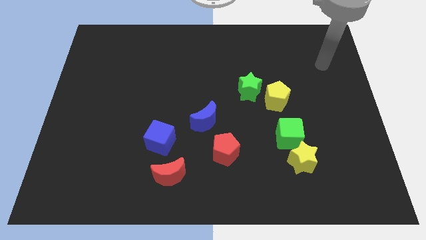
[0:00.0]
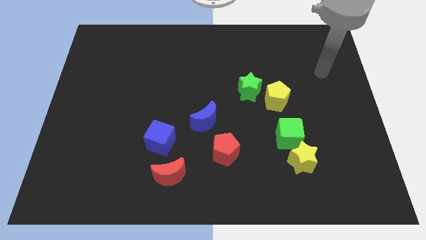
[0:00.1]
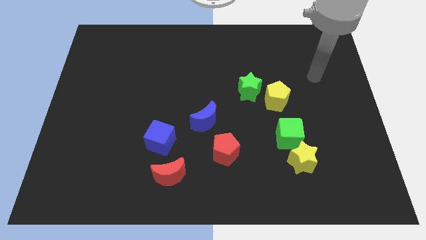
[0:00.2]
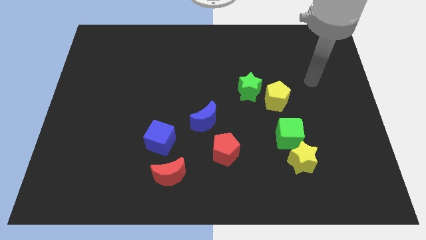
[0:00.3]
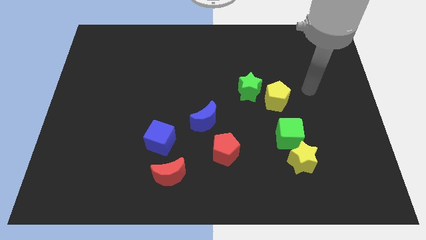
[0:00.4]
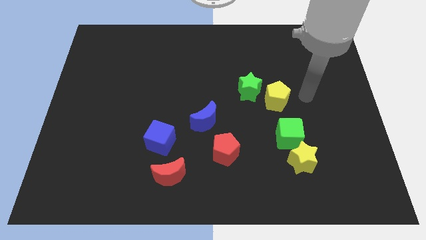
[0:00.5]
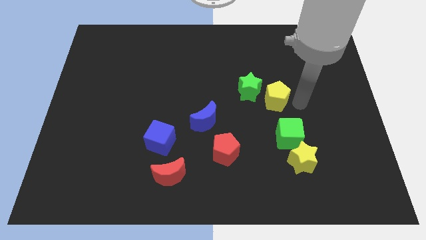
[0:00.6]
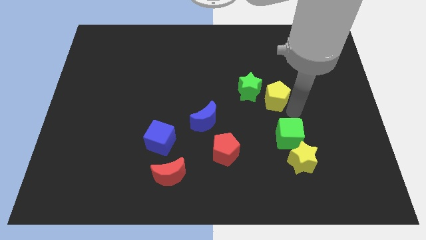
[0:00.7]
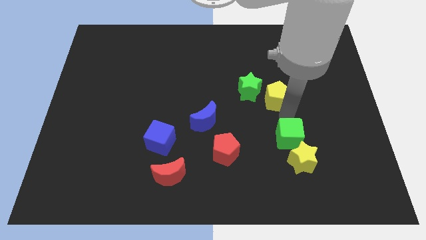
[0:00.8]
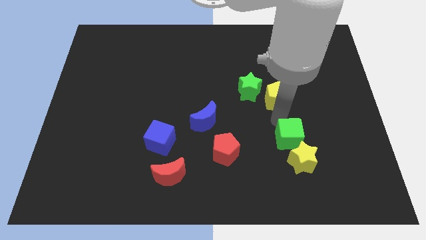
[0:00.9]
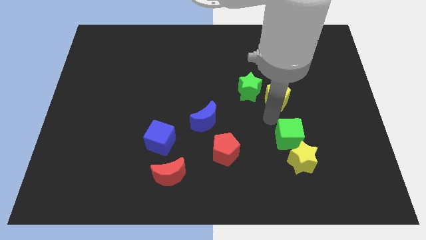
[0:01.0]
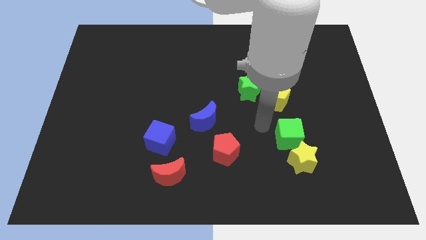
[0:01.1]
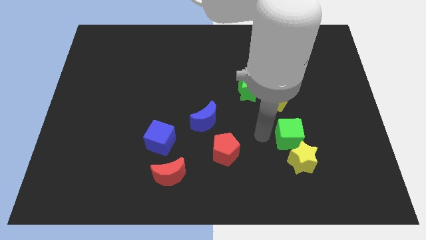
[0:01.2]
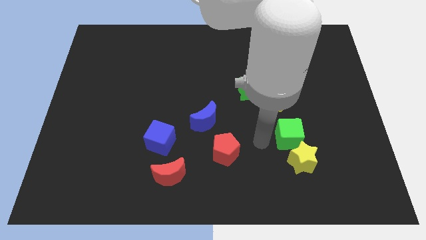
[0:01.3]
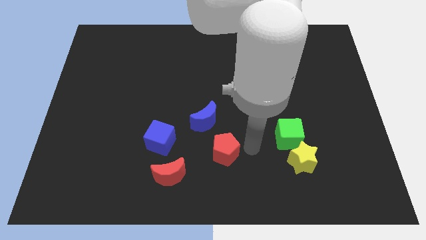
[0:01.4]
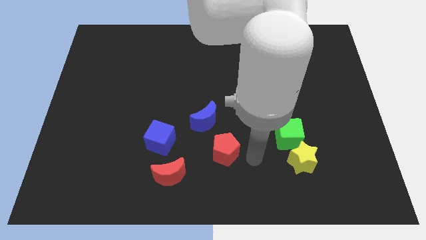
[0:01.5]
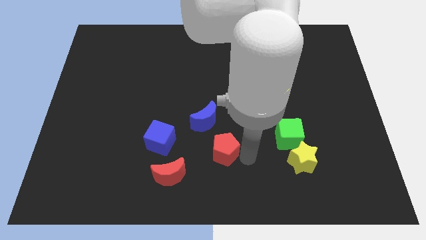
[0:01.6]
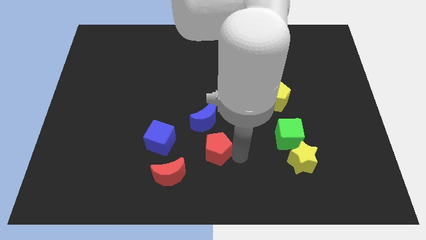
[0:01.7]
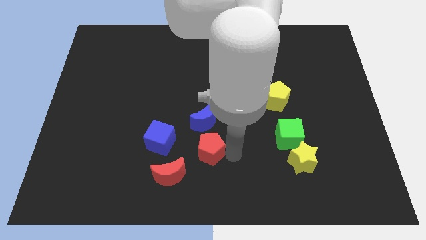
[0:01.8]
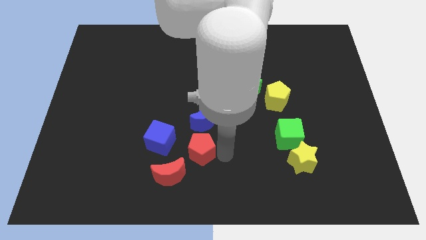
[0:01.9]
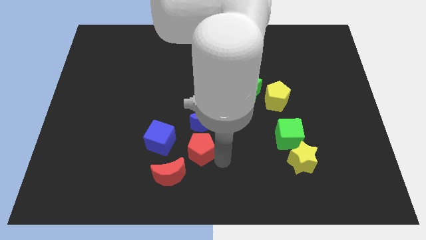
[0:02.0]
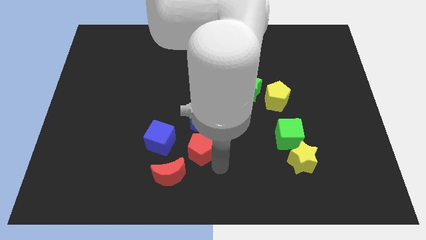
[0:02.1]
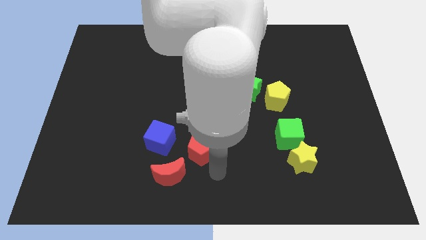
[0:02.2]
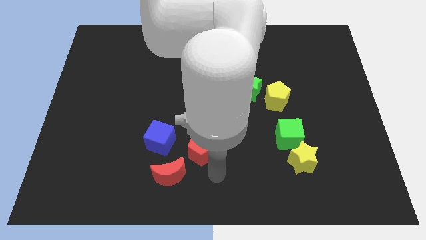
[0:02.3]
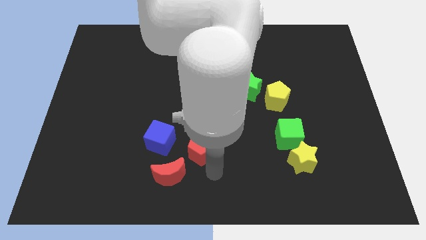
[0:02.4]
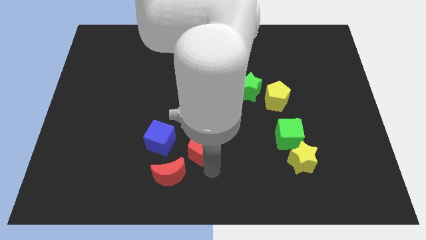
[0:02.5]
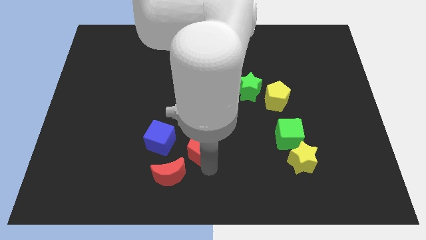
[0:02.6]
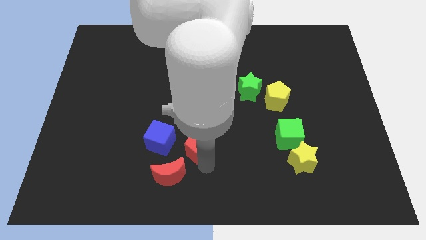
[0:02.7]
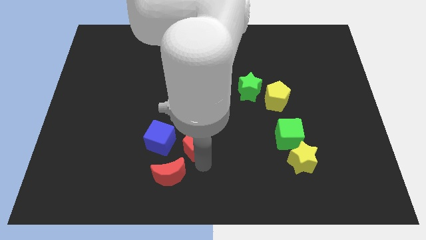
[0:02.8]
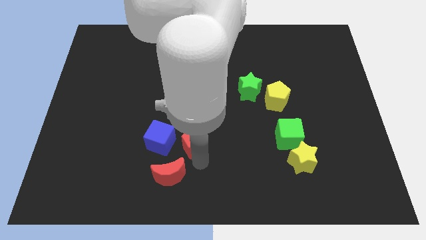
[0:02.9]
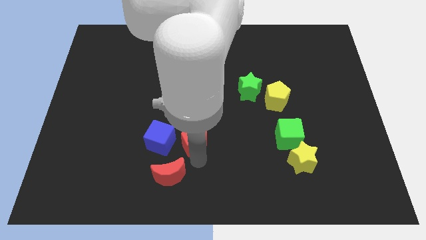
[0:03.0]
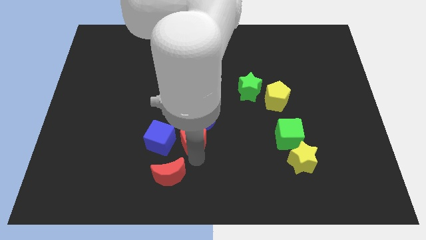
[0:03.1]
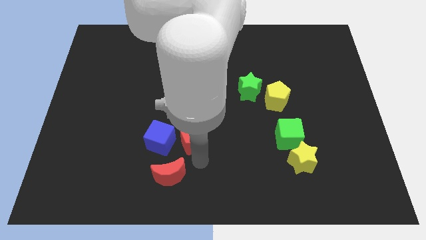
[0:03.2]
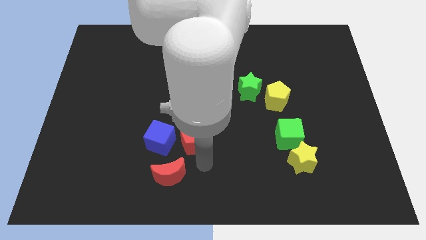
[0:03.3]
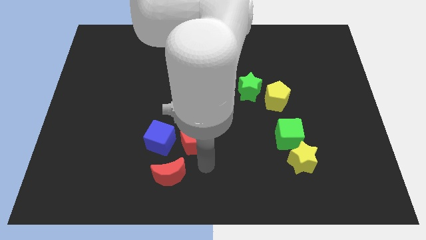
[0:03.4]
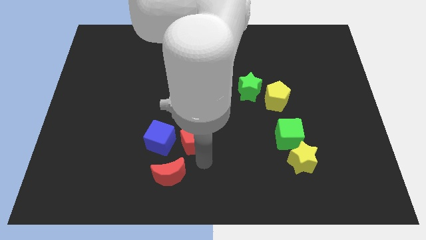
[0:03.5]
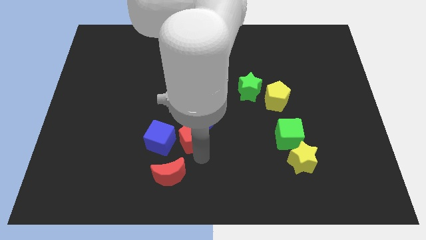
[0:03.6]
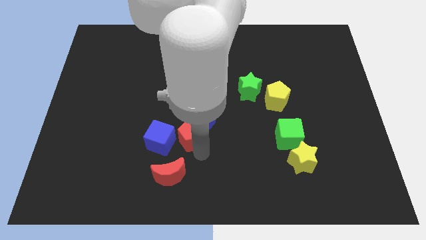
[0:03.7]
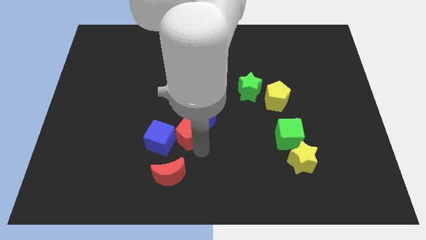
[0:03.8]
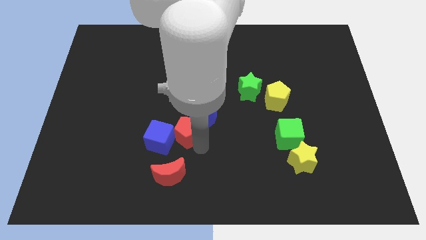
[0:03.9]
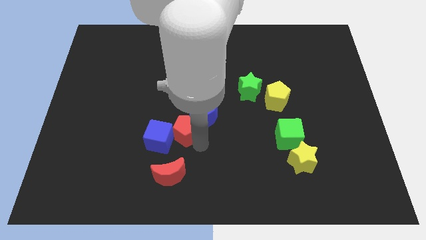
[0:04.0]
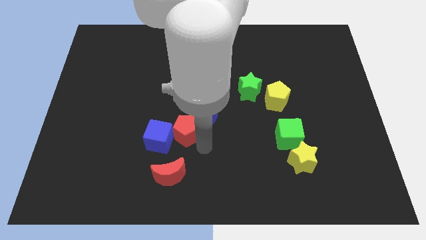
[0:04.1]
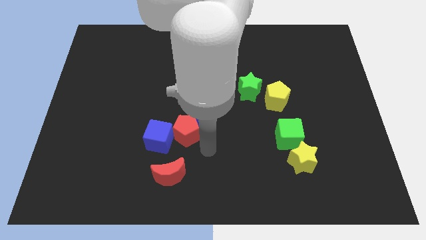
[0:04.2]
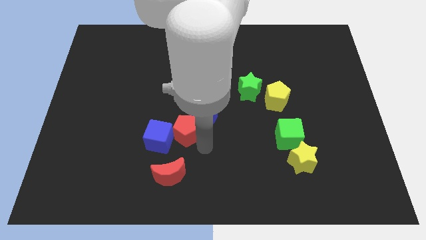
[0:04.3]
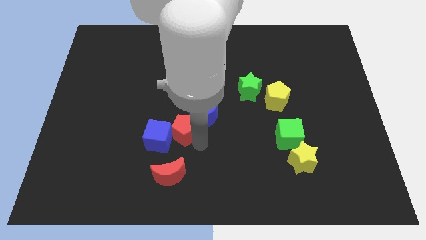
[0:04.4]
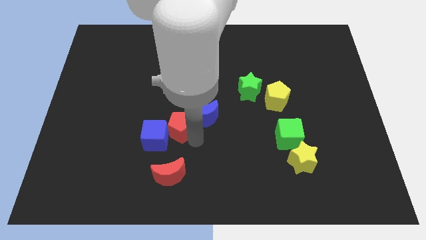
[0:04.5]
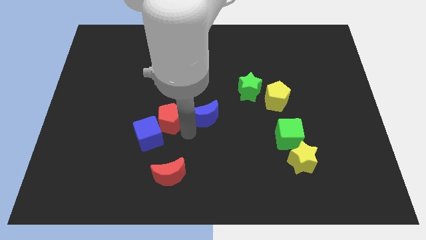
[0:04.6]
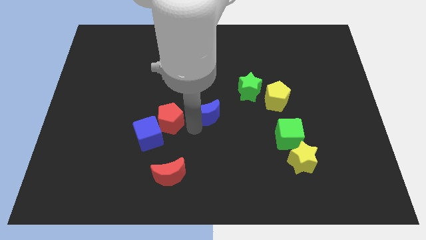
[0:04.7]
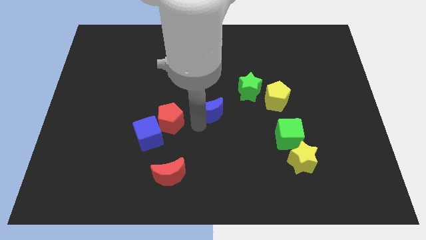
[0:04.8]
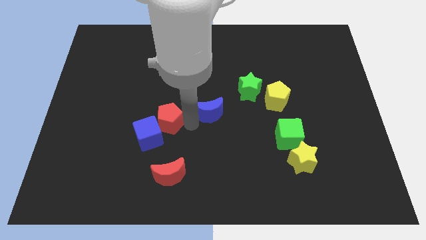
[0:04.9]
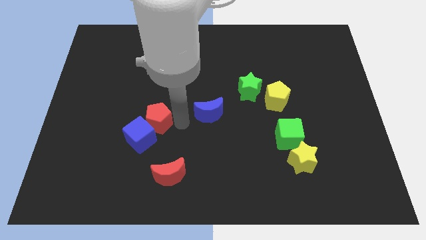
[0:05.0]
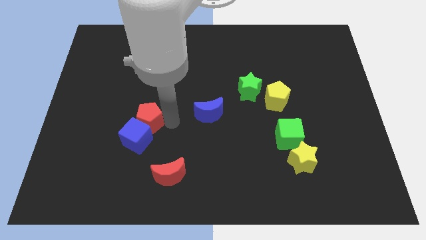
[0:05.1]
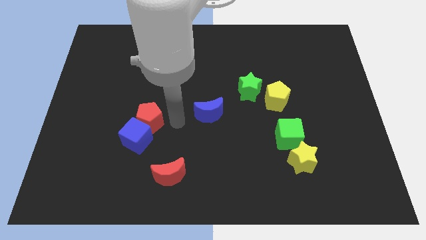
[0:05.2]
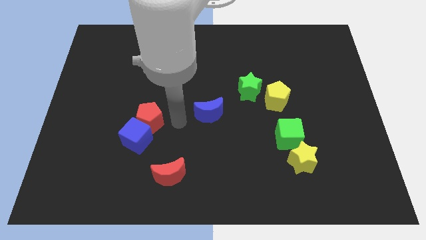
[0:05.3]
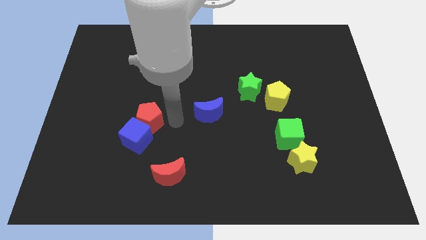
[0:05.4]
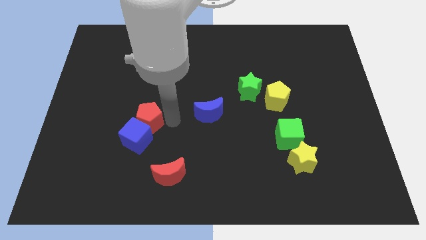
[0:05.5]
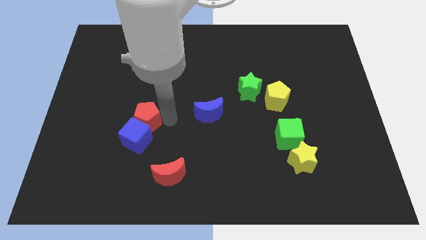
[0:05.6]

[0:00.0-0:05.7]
push the red pentagon to the top left side of the blue cube

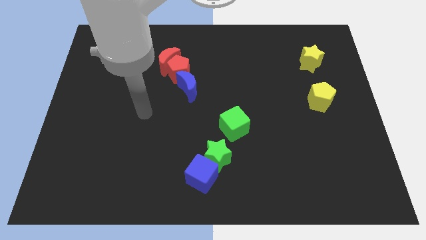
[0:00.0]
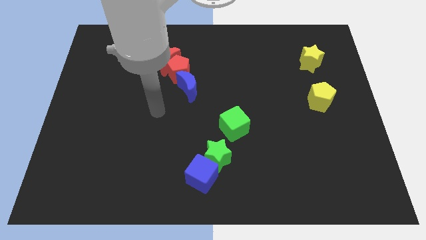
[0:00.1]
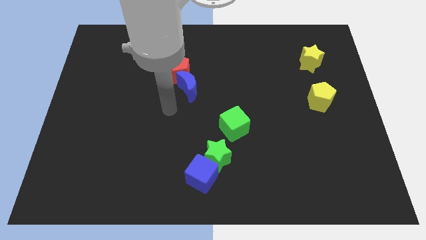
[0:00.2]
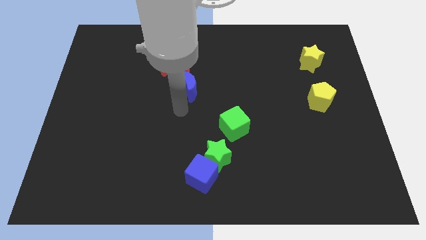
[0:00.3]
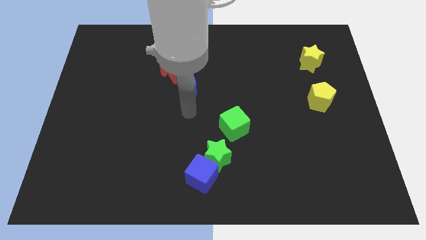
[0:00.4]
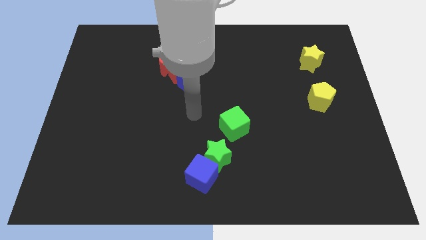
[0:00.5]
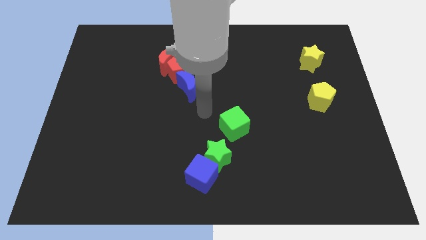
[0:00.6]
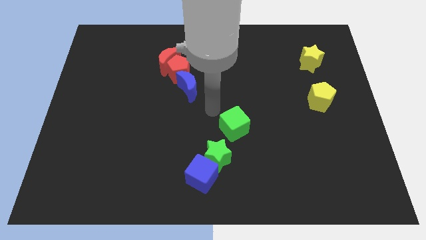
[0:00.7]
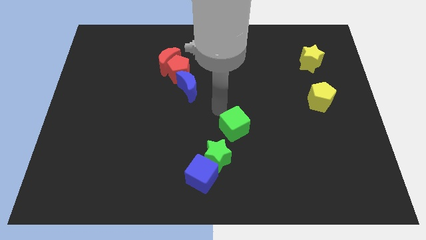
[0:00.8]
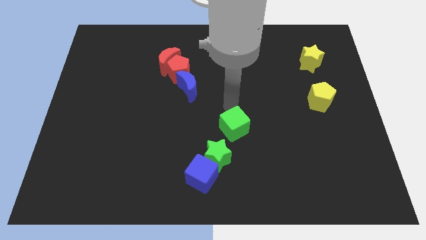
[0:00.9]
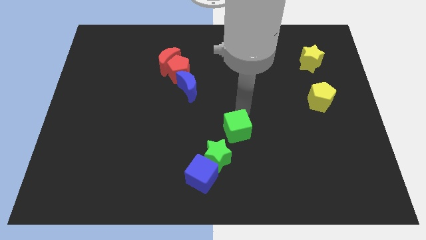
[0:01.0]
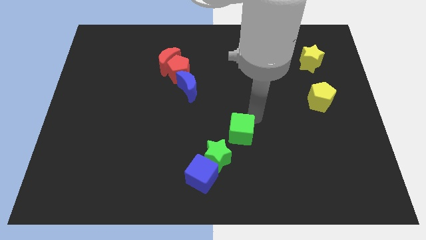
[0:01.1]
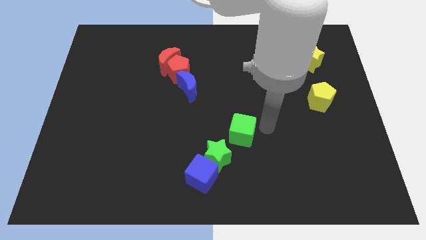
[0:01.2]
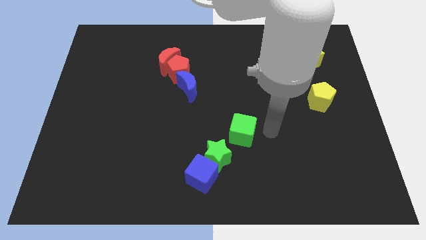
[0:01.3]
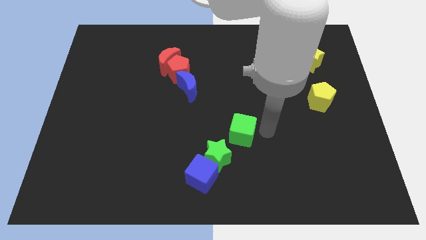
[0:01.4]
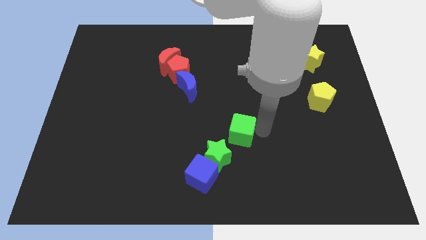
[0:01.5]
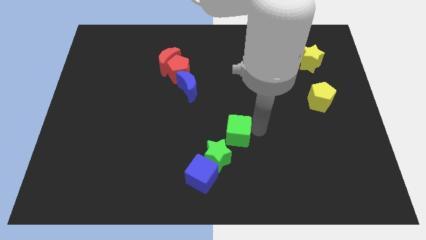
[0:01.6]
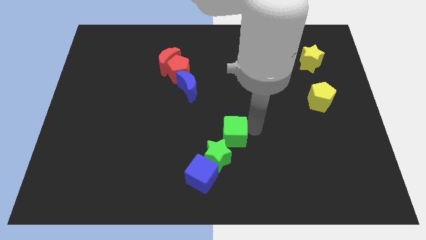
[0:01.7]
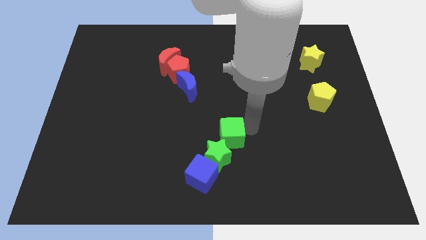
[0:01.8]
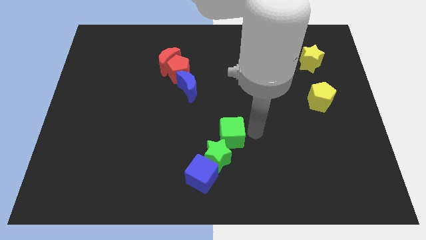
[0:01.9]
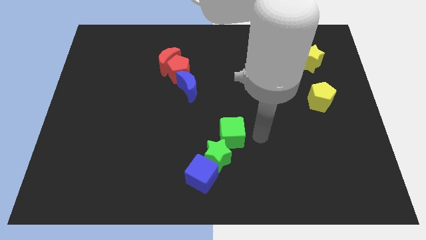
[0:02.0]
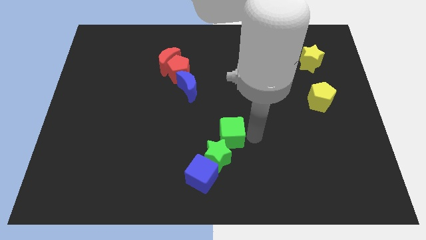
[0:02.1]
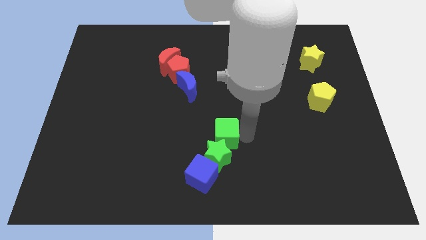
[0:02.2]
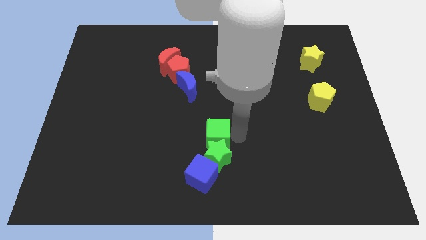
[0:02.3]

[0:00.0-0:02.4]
slide the green cube to the top side of the blue cube
